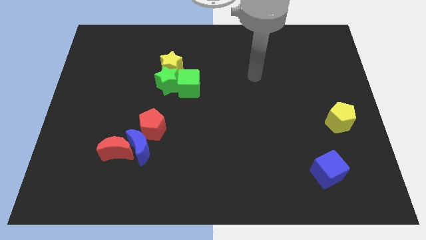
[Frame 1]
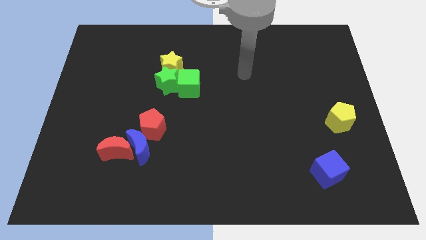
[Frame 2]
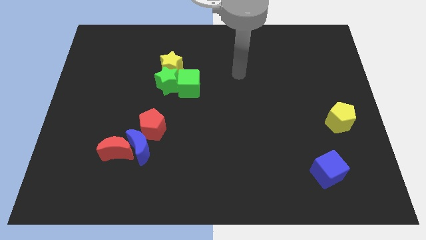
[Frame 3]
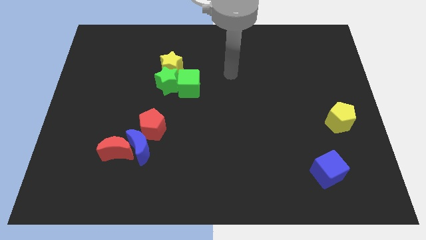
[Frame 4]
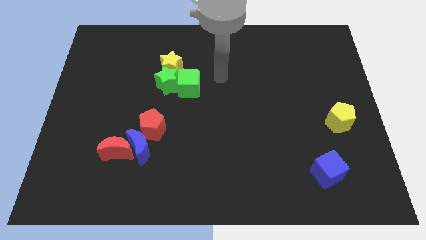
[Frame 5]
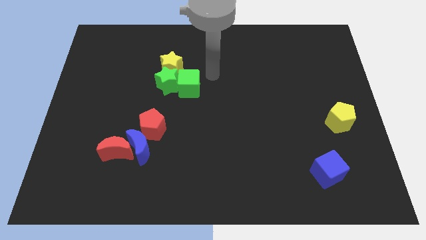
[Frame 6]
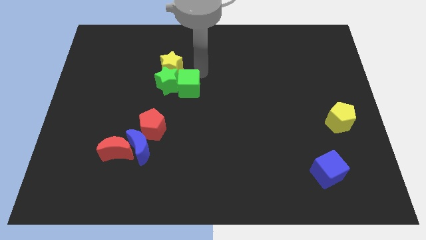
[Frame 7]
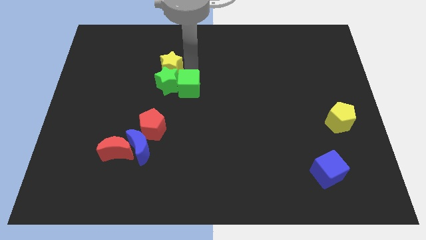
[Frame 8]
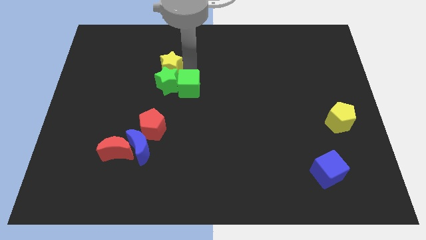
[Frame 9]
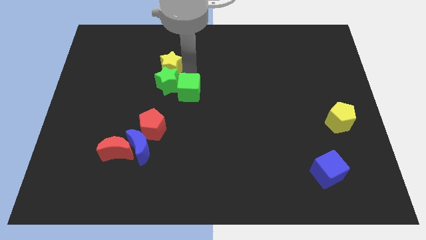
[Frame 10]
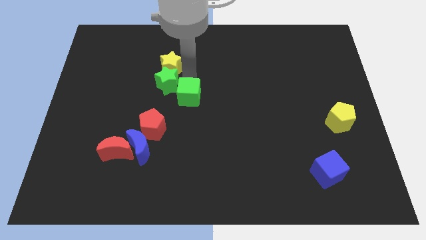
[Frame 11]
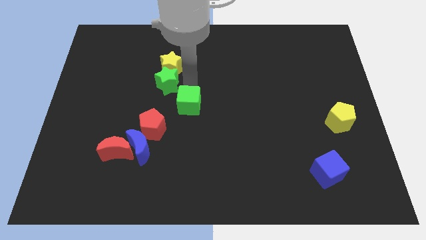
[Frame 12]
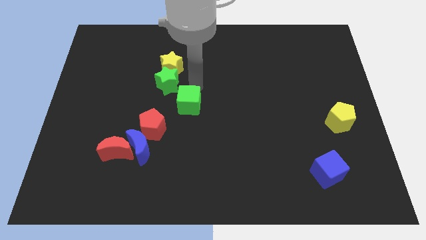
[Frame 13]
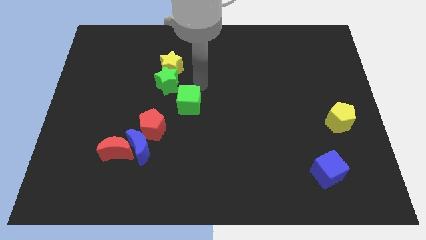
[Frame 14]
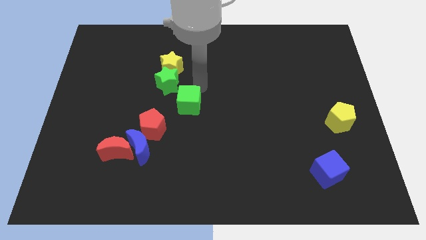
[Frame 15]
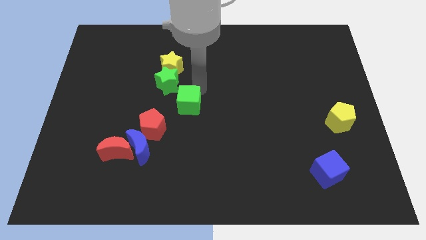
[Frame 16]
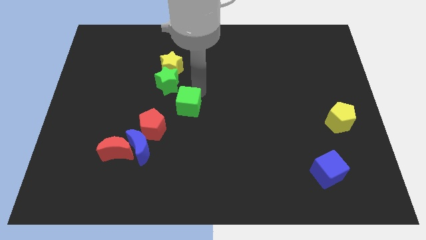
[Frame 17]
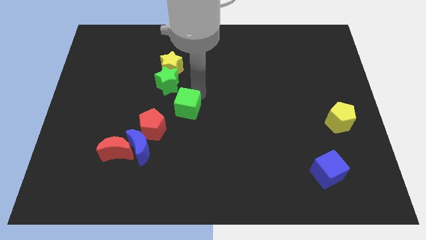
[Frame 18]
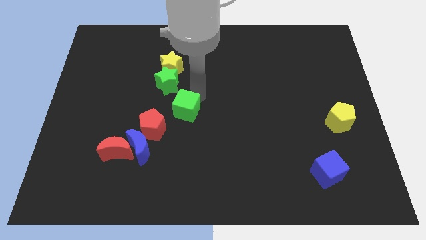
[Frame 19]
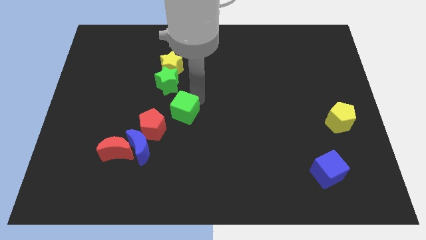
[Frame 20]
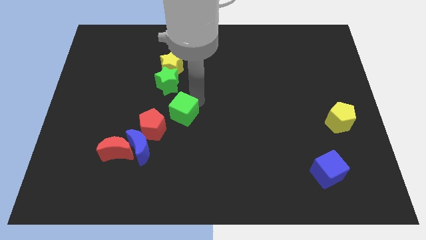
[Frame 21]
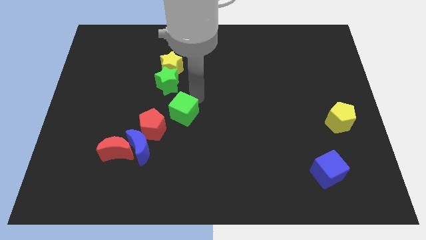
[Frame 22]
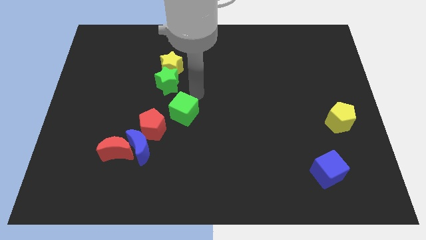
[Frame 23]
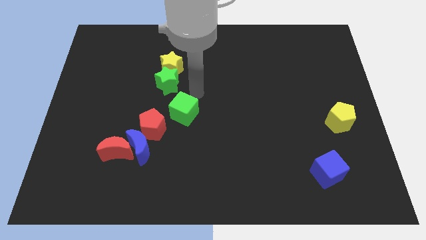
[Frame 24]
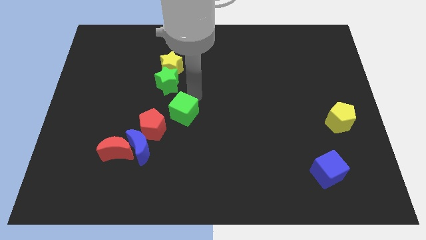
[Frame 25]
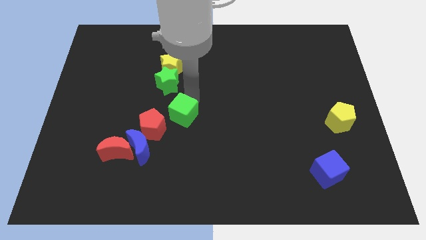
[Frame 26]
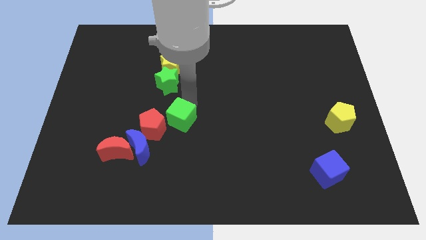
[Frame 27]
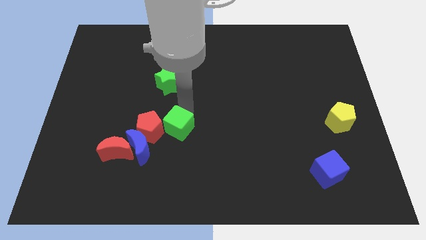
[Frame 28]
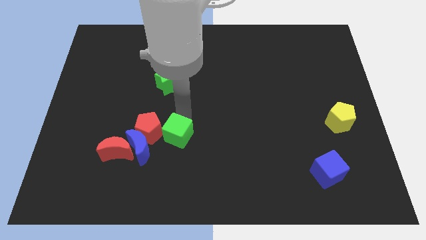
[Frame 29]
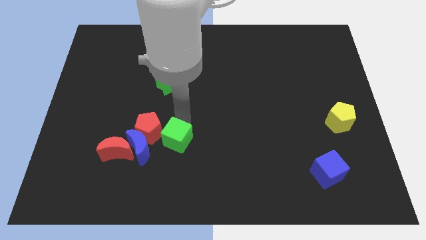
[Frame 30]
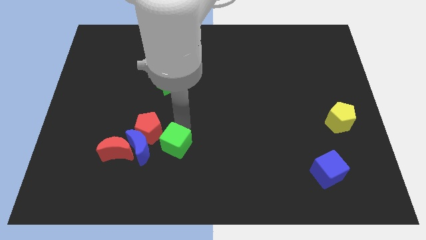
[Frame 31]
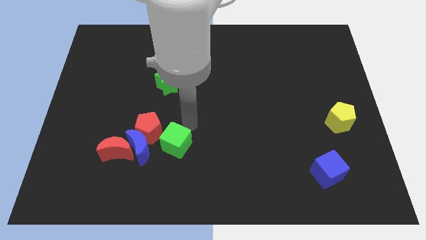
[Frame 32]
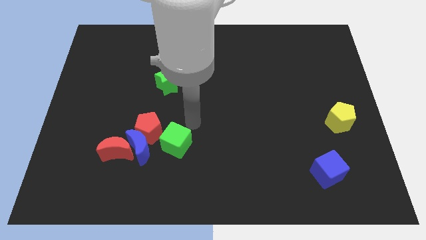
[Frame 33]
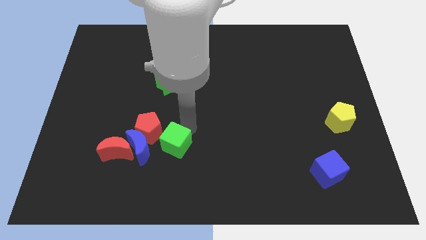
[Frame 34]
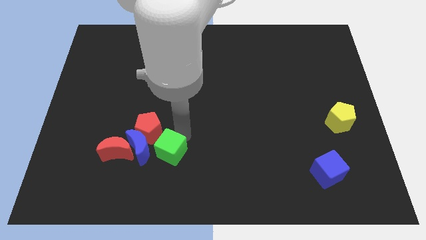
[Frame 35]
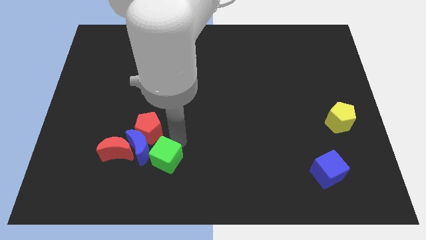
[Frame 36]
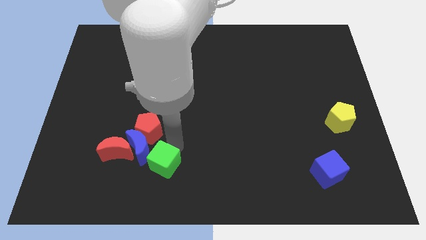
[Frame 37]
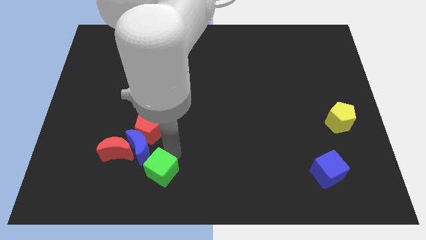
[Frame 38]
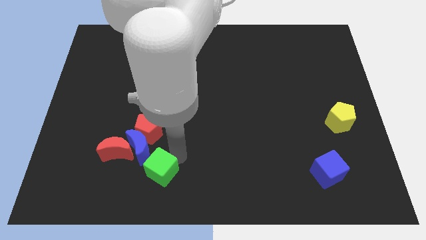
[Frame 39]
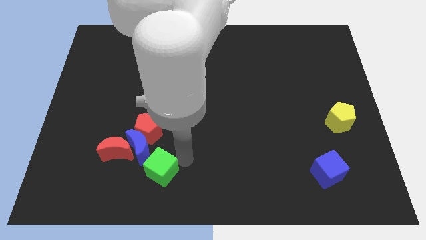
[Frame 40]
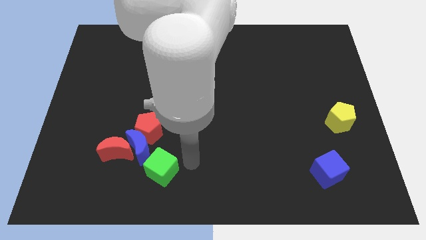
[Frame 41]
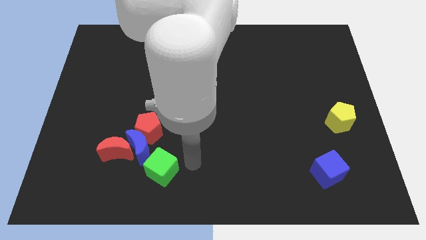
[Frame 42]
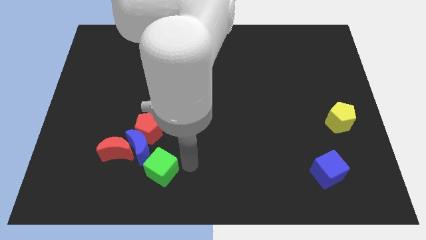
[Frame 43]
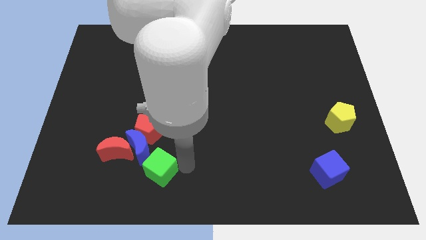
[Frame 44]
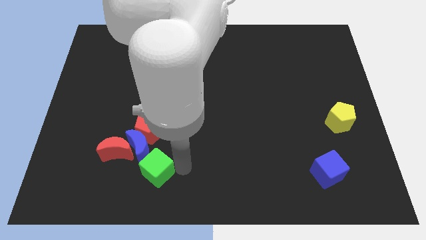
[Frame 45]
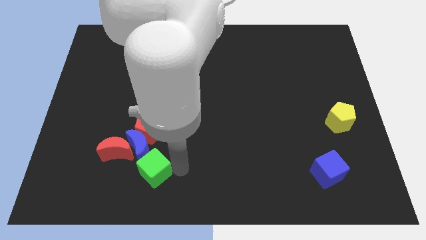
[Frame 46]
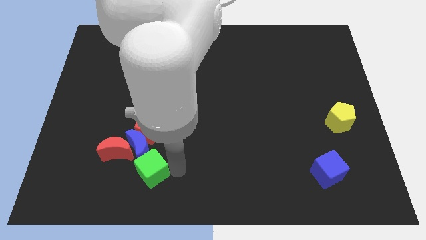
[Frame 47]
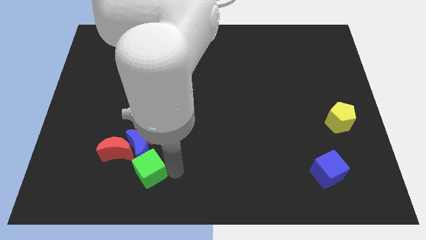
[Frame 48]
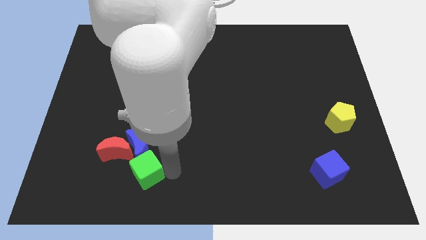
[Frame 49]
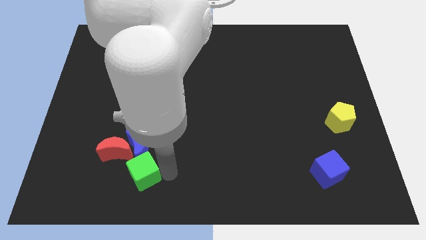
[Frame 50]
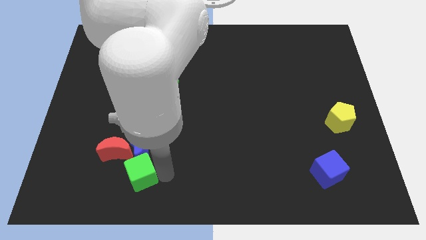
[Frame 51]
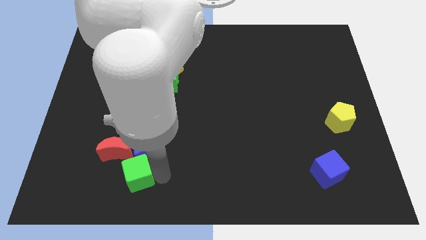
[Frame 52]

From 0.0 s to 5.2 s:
slide the green cube diagonally down and to the left of the blue moon

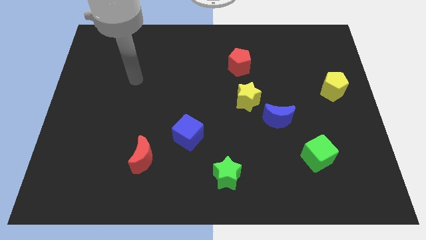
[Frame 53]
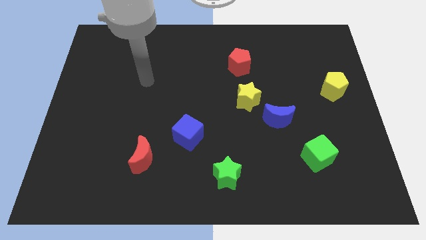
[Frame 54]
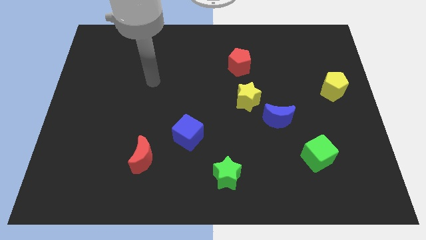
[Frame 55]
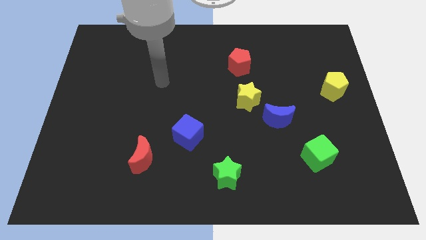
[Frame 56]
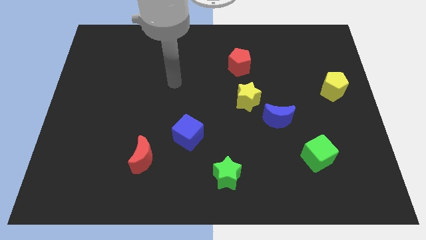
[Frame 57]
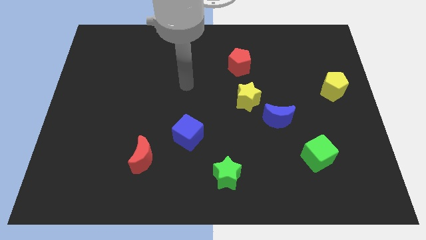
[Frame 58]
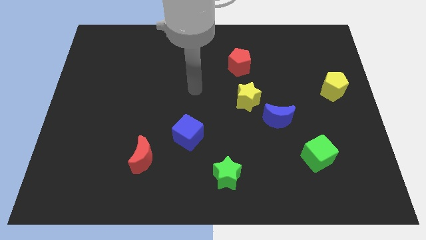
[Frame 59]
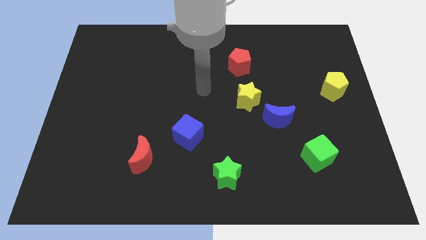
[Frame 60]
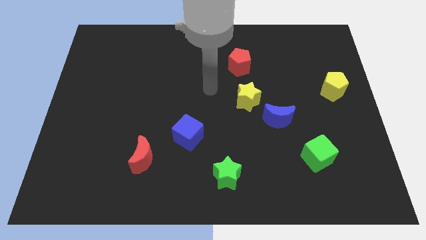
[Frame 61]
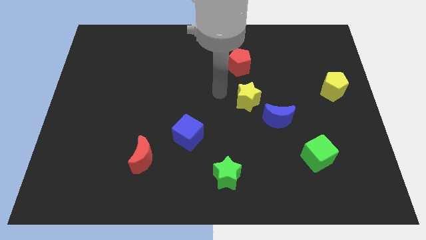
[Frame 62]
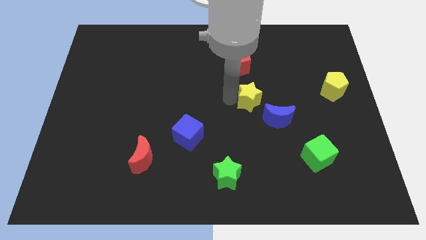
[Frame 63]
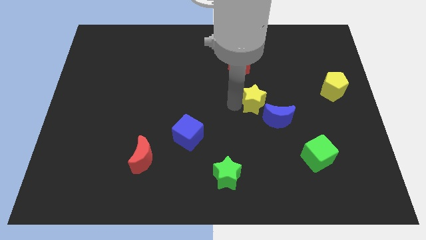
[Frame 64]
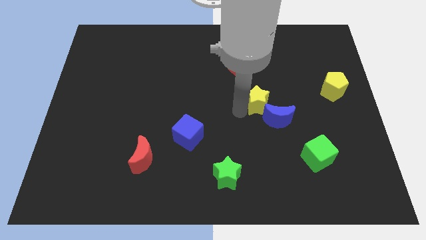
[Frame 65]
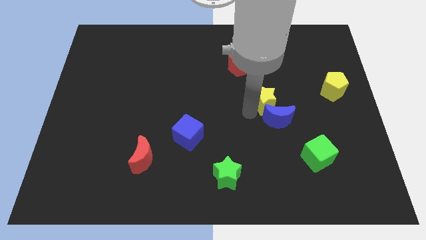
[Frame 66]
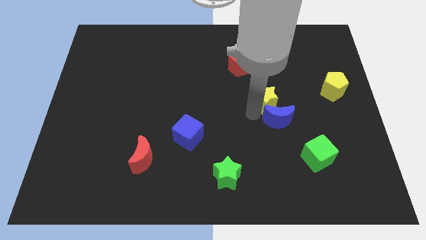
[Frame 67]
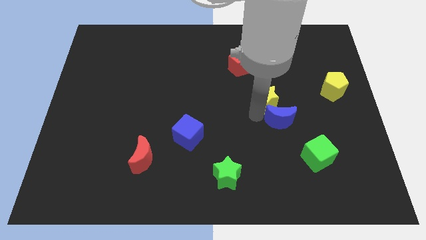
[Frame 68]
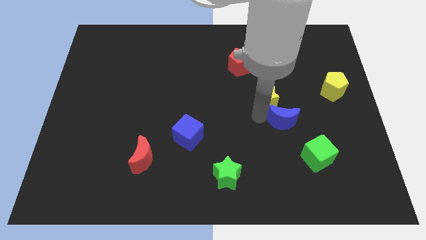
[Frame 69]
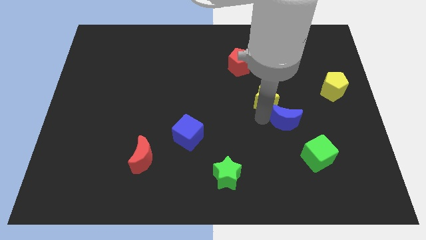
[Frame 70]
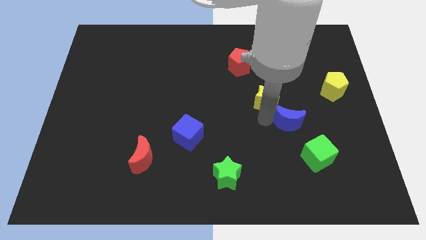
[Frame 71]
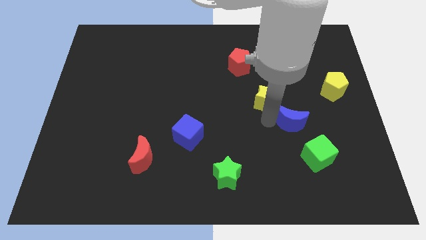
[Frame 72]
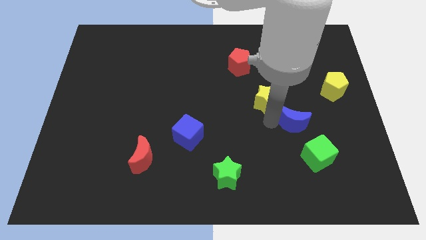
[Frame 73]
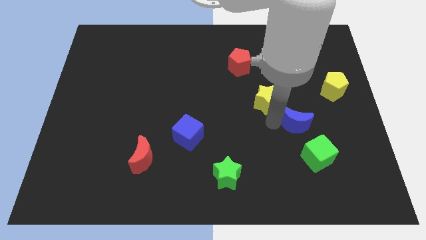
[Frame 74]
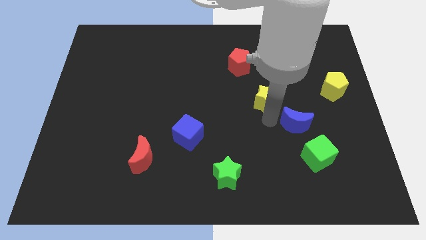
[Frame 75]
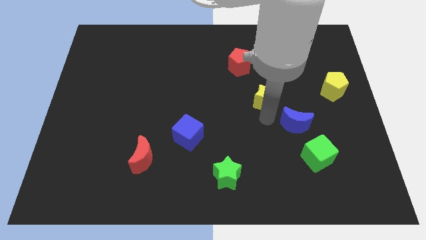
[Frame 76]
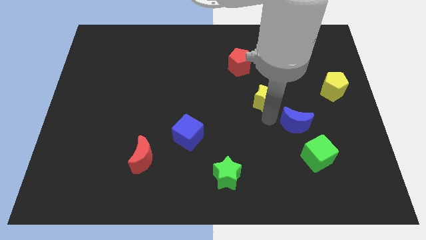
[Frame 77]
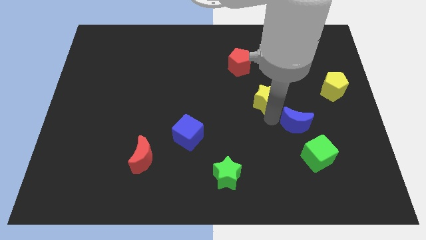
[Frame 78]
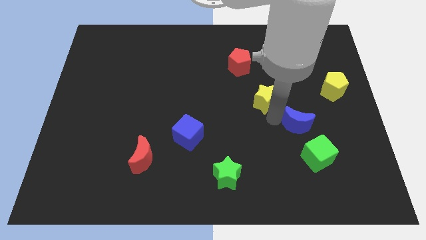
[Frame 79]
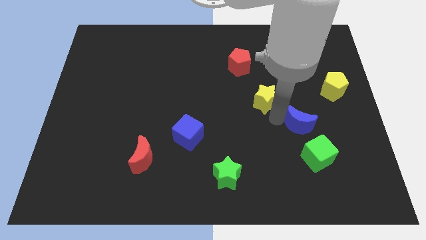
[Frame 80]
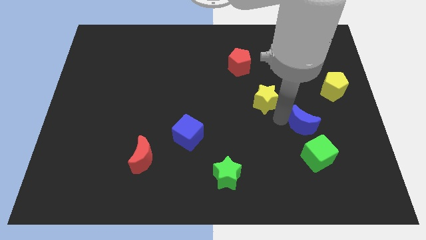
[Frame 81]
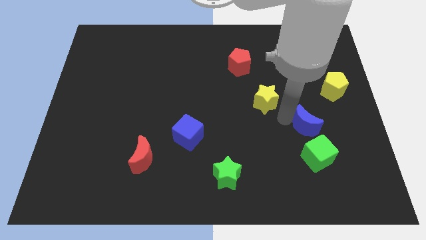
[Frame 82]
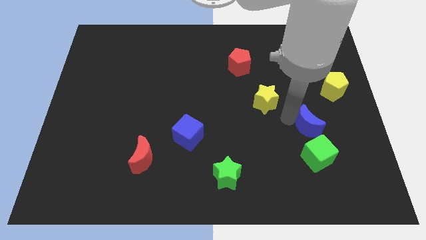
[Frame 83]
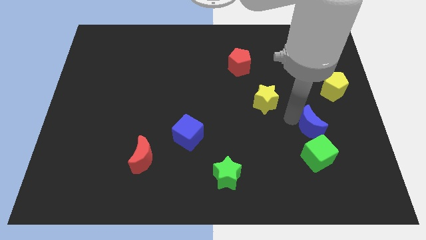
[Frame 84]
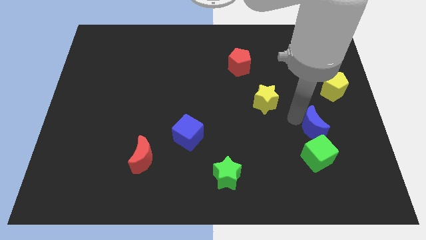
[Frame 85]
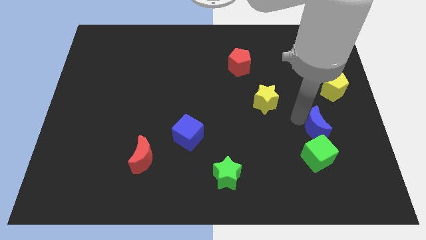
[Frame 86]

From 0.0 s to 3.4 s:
push the blue moon to the top right side of the green cube
